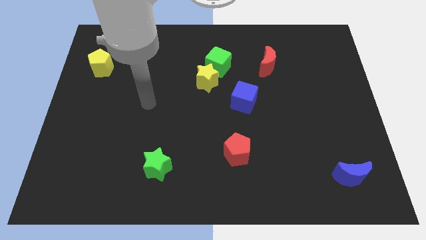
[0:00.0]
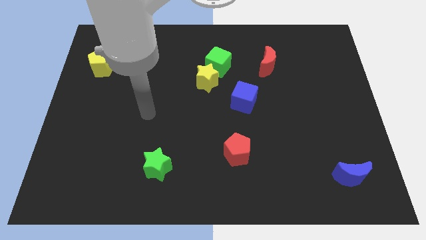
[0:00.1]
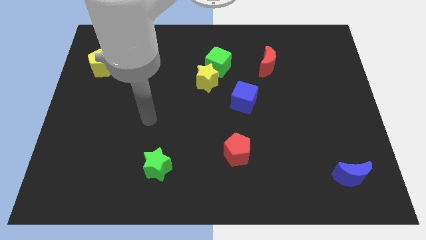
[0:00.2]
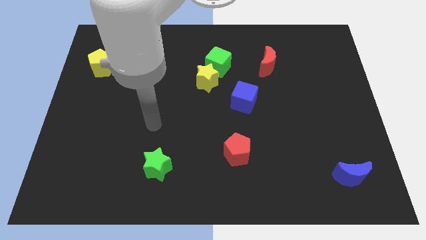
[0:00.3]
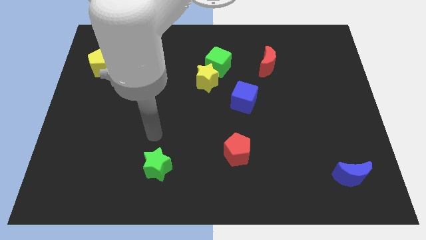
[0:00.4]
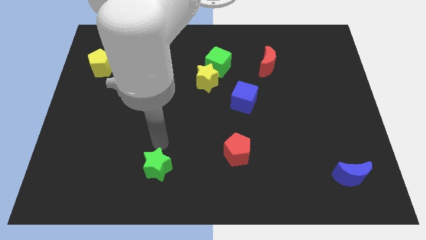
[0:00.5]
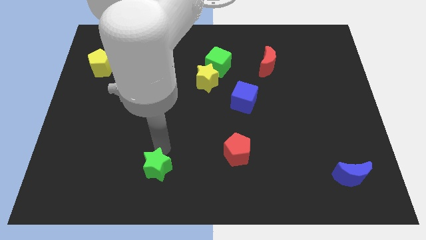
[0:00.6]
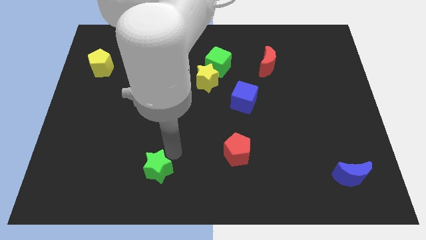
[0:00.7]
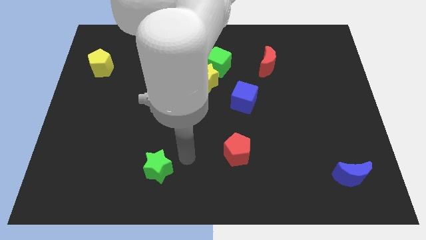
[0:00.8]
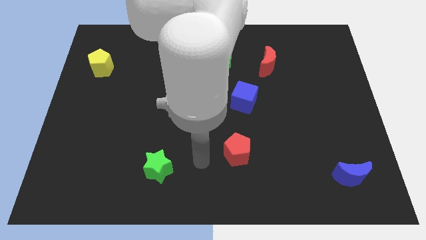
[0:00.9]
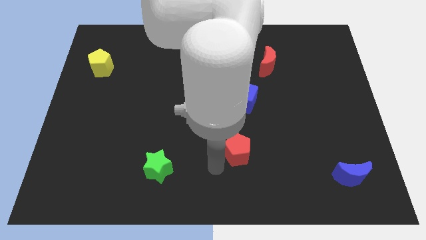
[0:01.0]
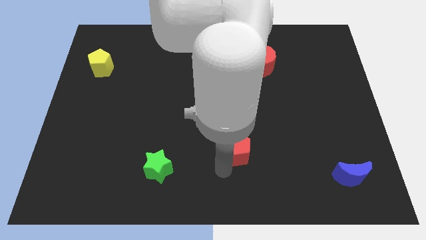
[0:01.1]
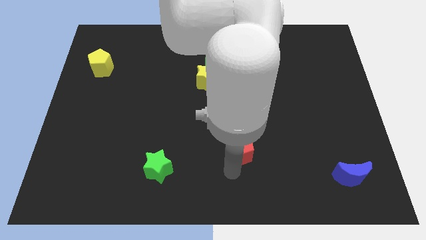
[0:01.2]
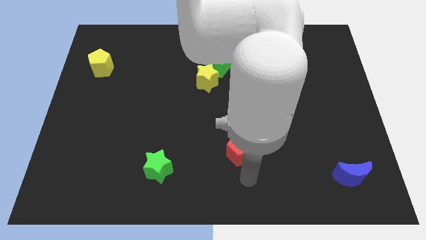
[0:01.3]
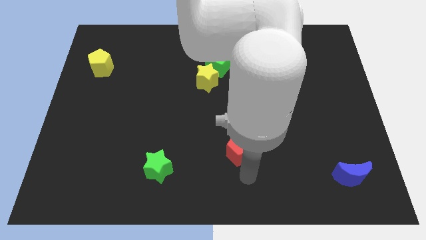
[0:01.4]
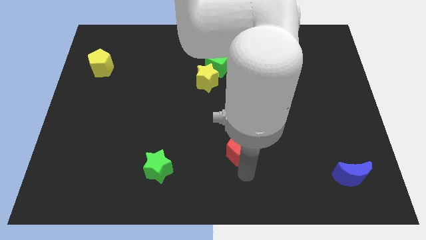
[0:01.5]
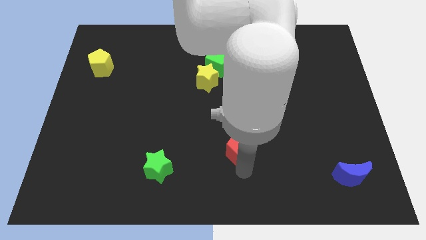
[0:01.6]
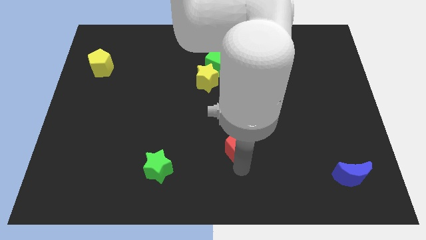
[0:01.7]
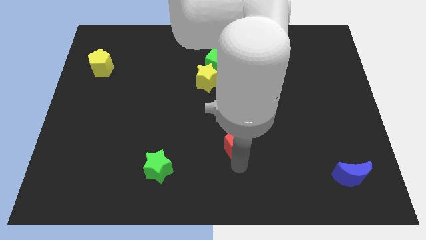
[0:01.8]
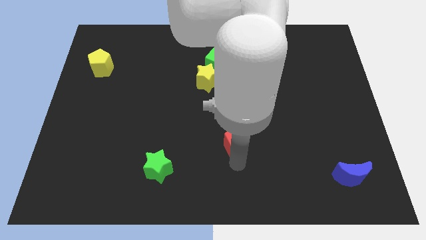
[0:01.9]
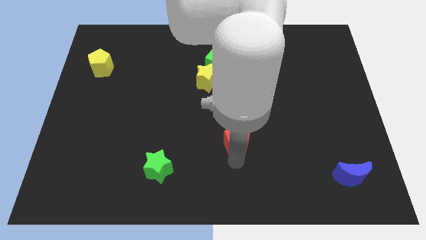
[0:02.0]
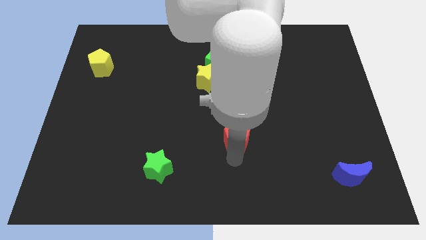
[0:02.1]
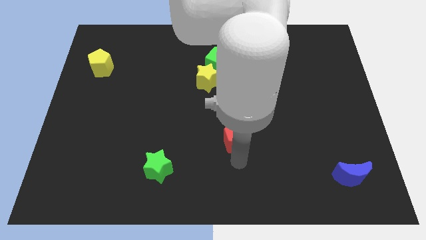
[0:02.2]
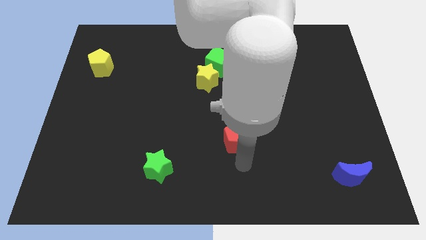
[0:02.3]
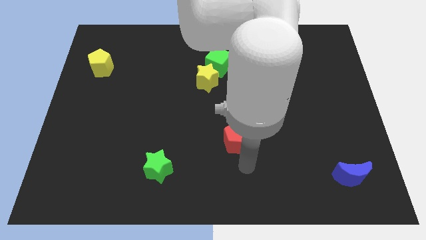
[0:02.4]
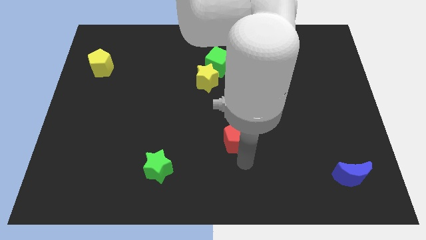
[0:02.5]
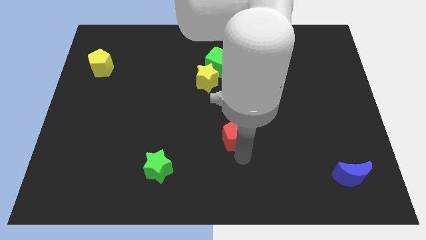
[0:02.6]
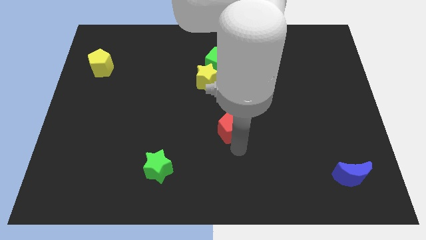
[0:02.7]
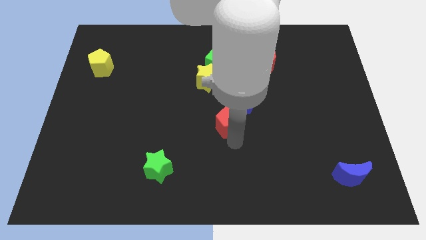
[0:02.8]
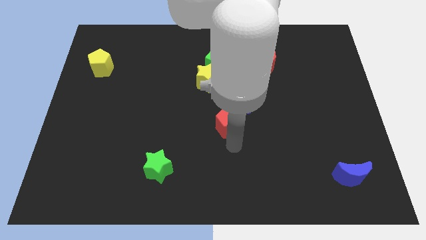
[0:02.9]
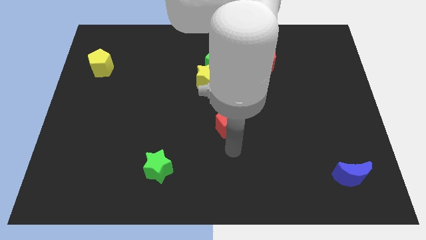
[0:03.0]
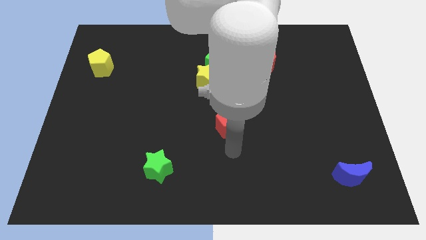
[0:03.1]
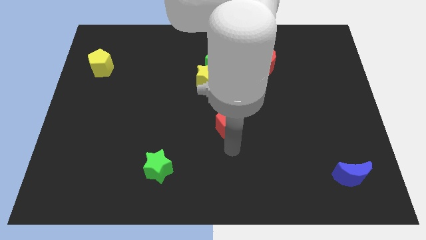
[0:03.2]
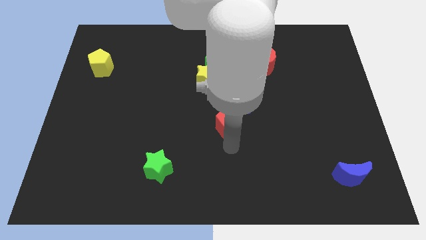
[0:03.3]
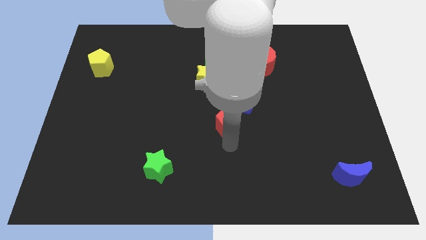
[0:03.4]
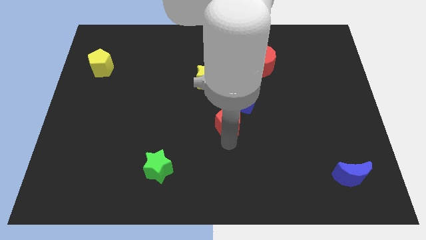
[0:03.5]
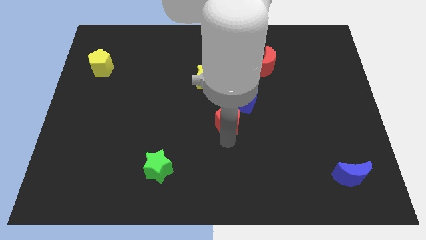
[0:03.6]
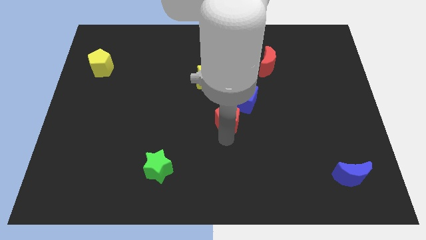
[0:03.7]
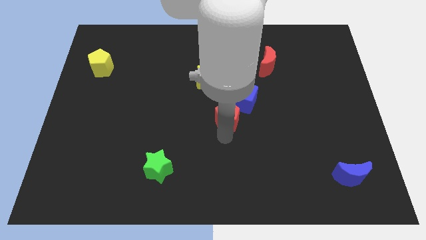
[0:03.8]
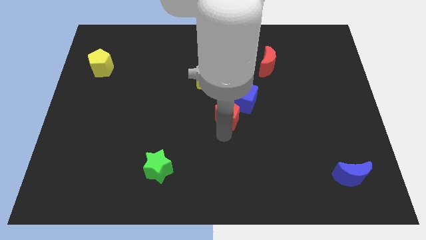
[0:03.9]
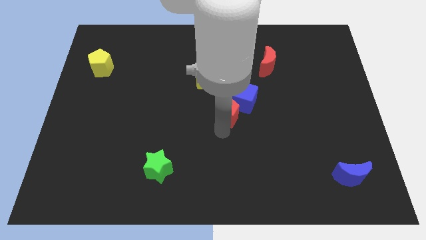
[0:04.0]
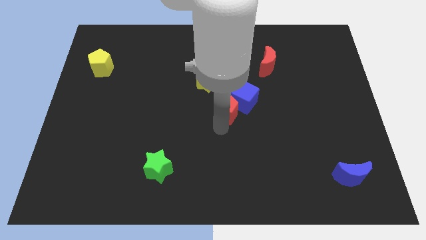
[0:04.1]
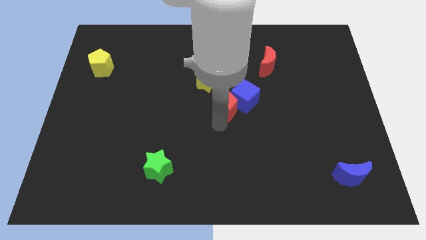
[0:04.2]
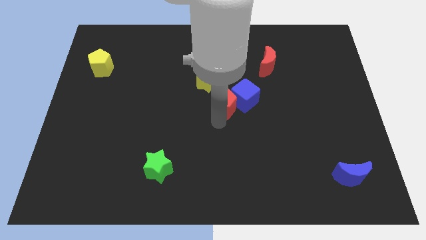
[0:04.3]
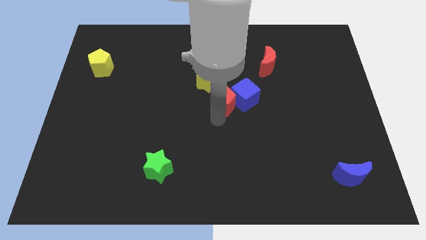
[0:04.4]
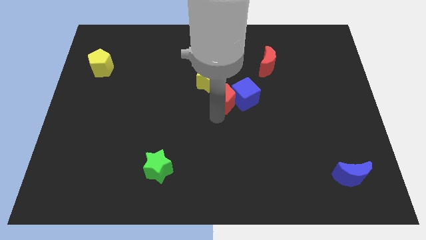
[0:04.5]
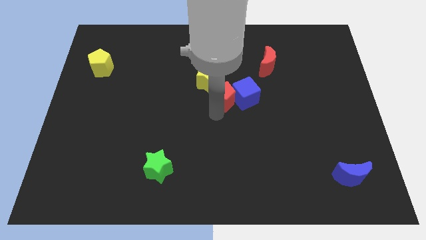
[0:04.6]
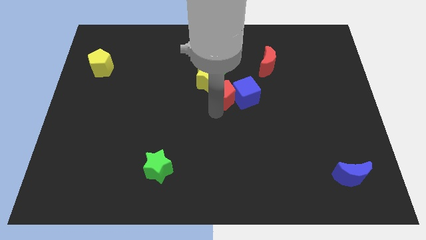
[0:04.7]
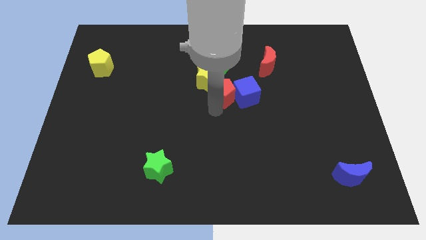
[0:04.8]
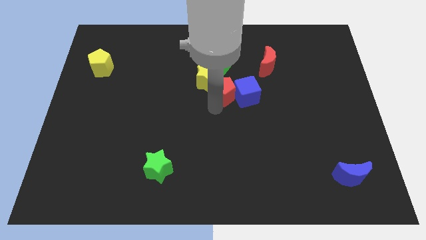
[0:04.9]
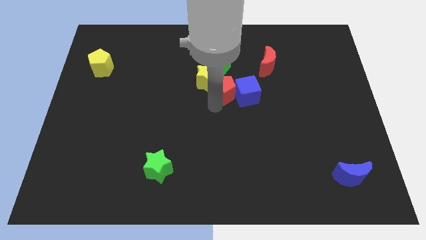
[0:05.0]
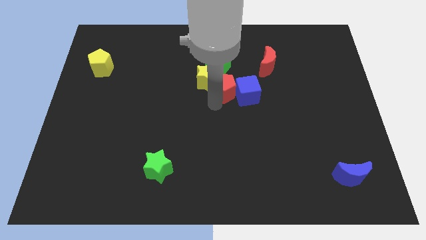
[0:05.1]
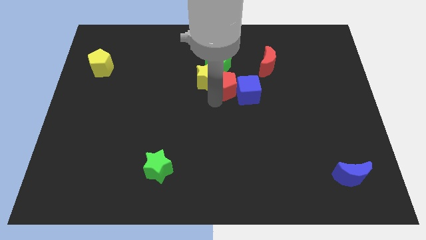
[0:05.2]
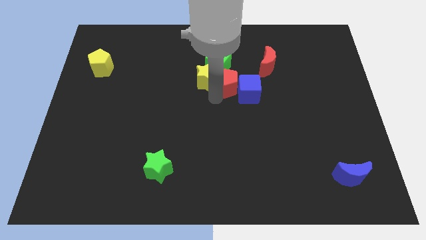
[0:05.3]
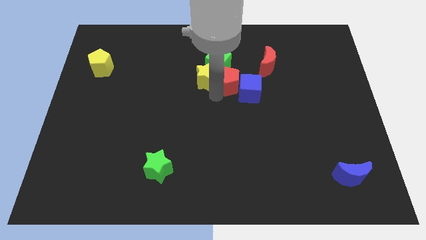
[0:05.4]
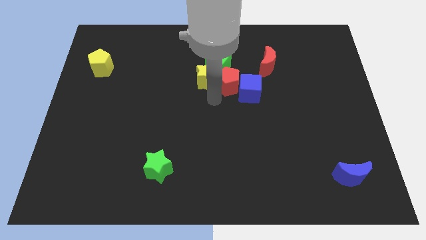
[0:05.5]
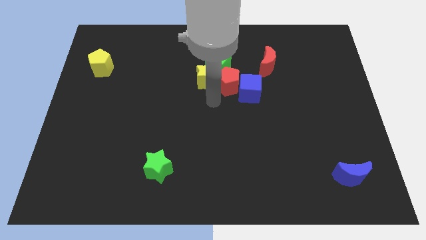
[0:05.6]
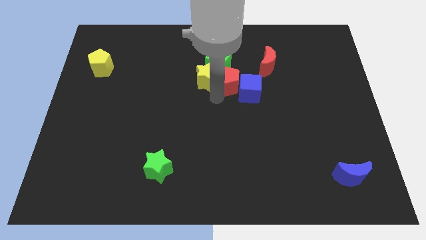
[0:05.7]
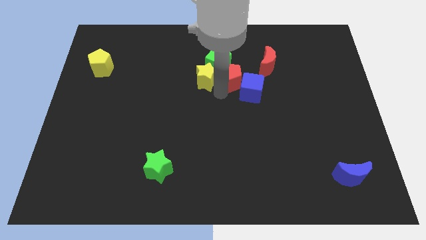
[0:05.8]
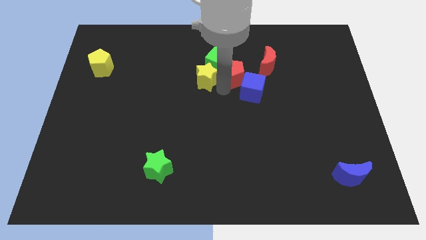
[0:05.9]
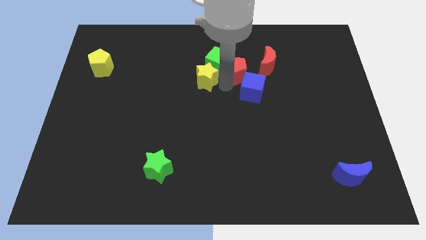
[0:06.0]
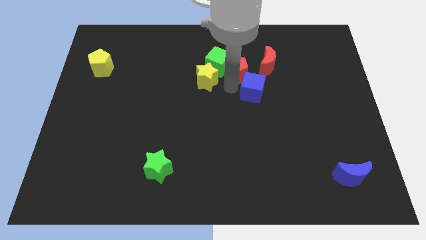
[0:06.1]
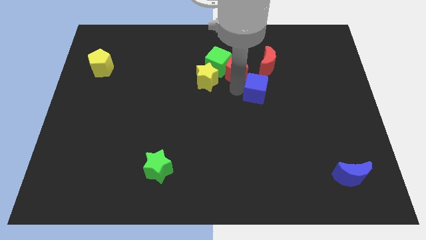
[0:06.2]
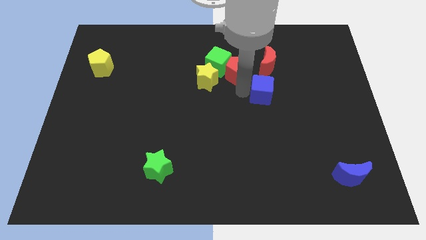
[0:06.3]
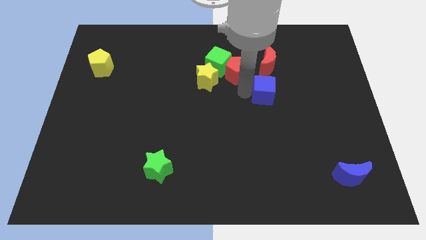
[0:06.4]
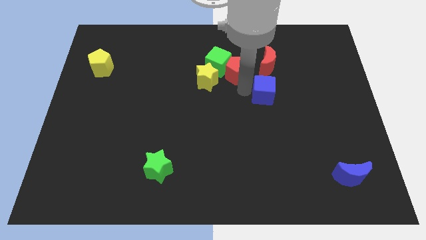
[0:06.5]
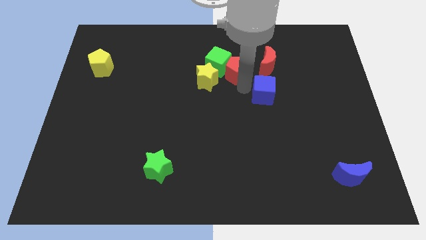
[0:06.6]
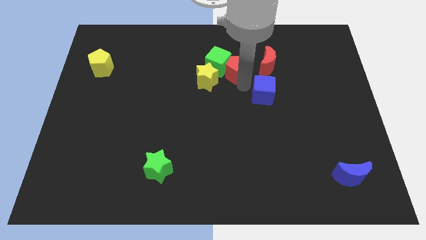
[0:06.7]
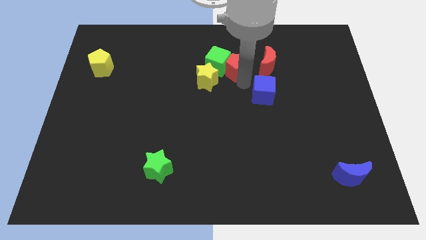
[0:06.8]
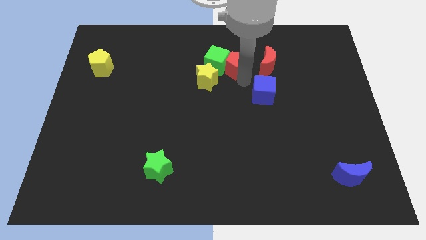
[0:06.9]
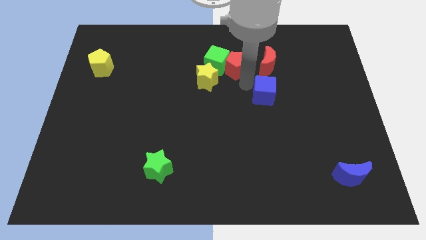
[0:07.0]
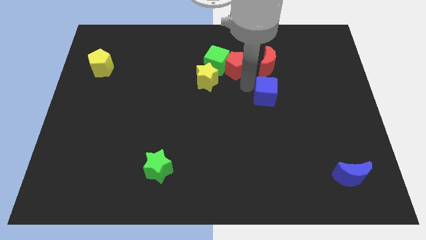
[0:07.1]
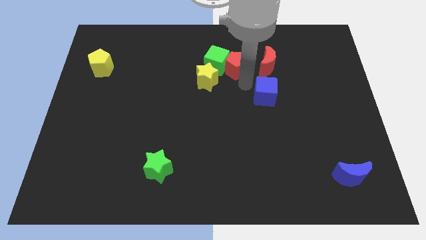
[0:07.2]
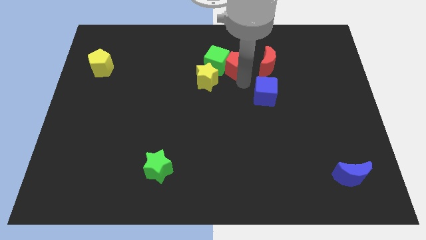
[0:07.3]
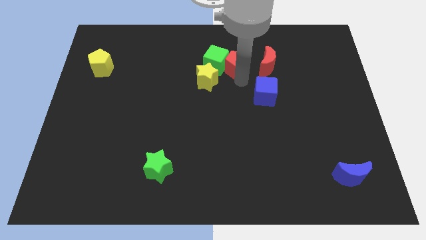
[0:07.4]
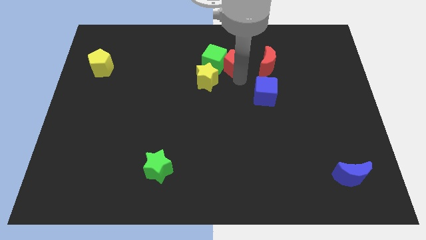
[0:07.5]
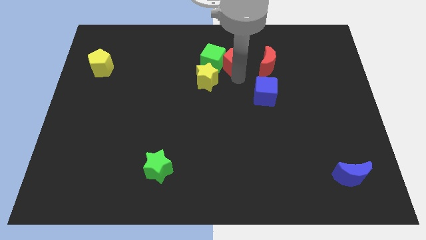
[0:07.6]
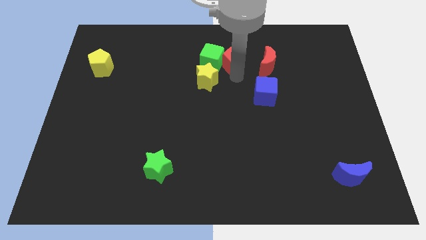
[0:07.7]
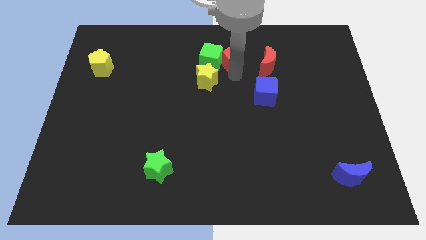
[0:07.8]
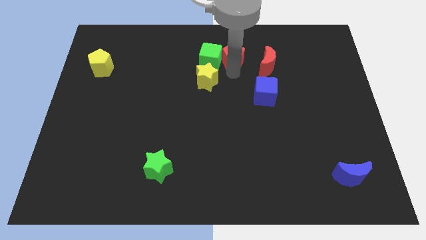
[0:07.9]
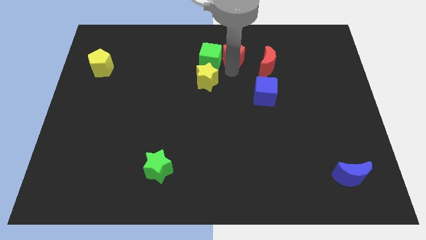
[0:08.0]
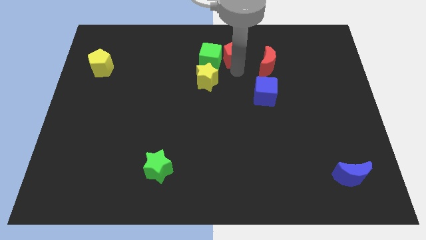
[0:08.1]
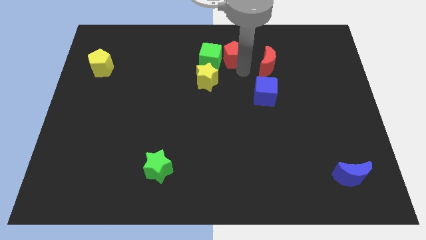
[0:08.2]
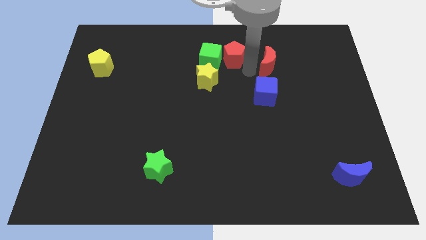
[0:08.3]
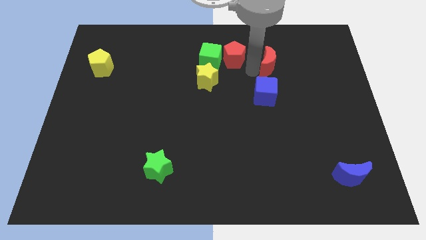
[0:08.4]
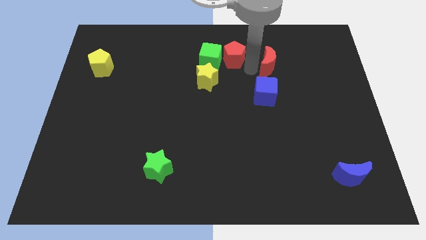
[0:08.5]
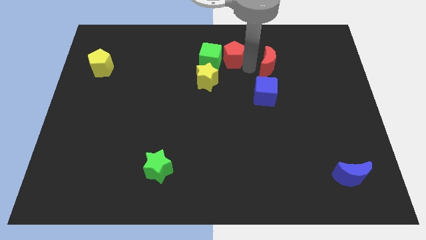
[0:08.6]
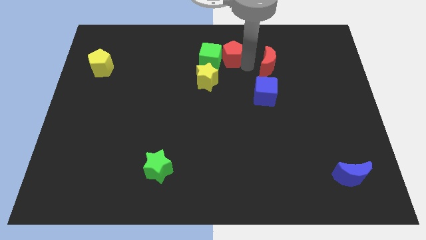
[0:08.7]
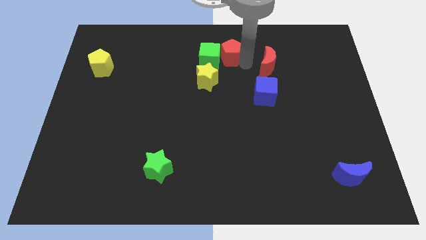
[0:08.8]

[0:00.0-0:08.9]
push the red pentagon to the top side
